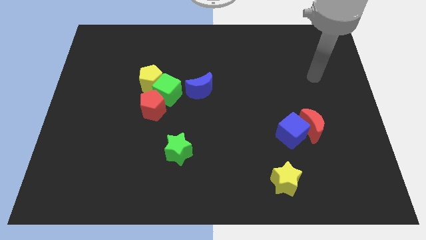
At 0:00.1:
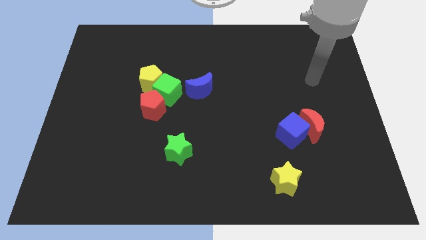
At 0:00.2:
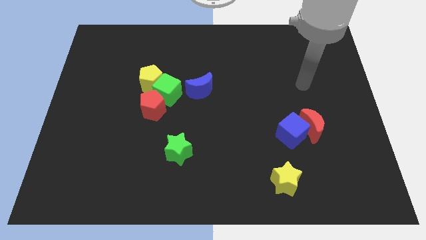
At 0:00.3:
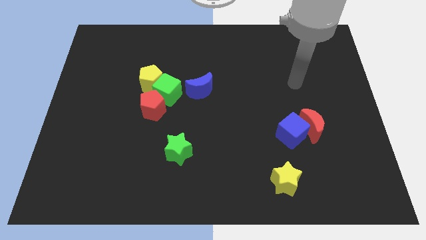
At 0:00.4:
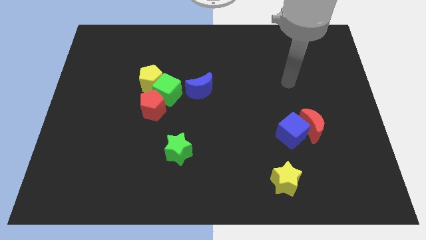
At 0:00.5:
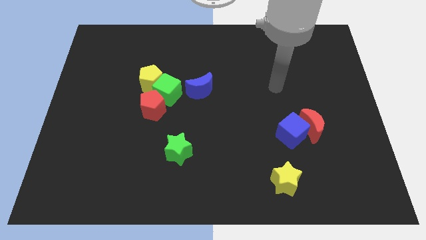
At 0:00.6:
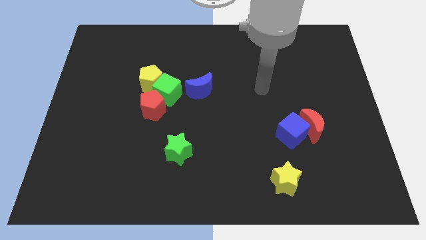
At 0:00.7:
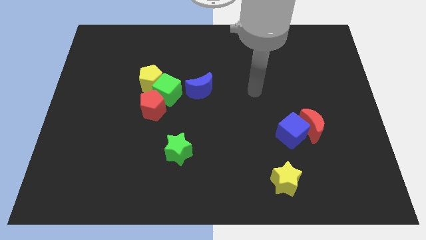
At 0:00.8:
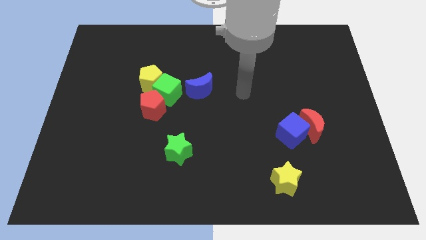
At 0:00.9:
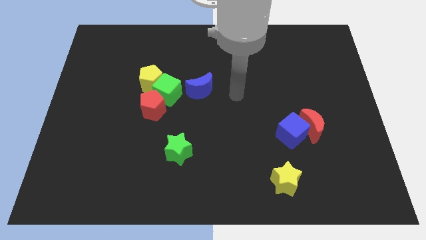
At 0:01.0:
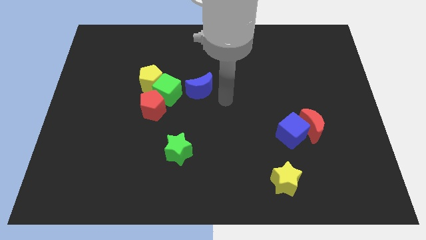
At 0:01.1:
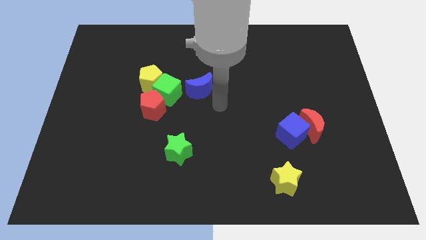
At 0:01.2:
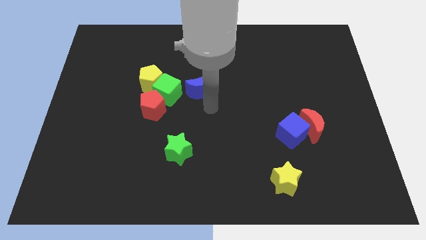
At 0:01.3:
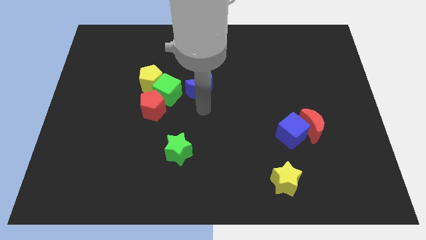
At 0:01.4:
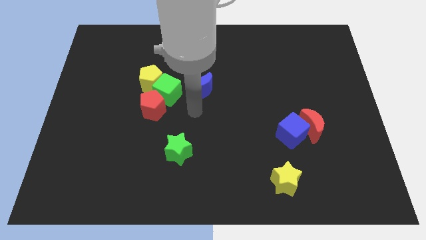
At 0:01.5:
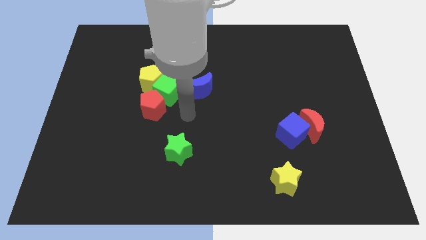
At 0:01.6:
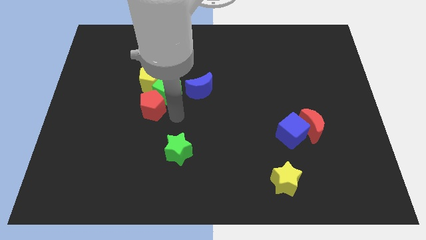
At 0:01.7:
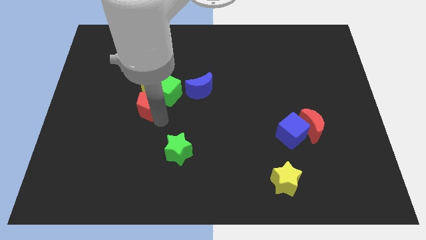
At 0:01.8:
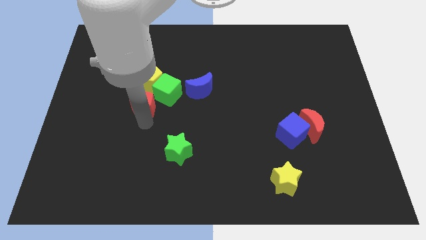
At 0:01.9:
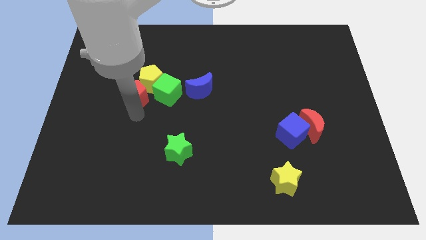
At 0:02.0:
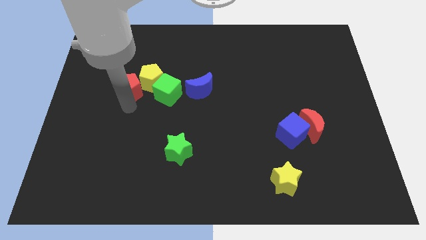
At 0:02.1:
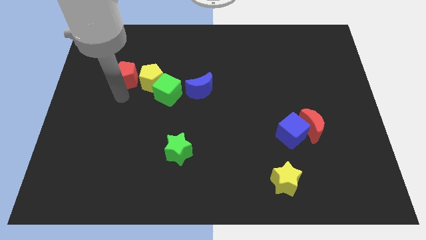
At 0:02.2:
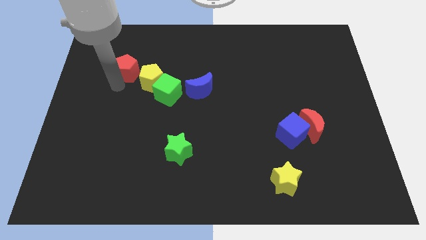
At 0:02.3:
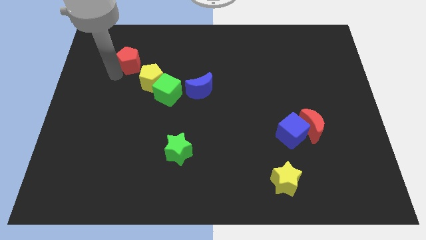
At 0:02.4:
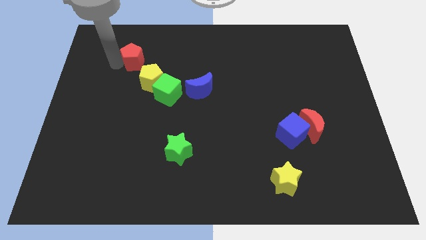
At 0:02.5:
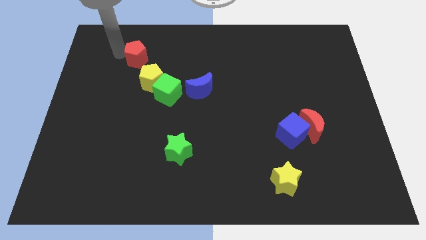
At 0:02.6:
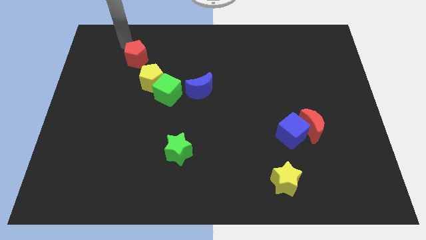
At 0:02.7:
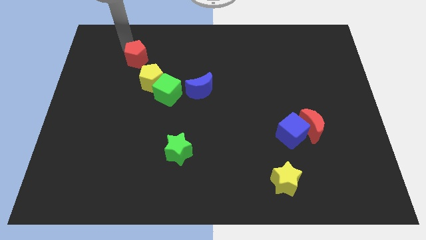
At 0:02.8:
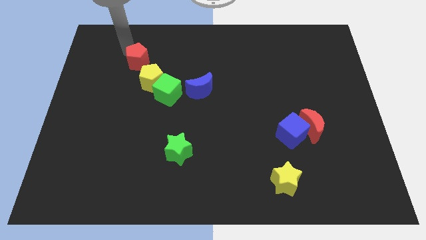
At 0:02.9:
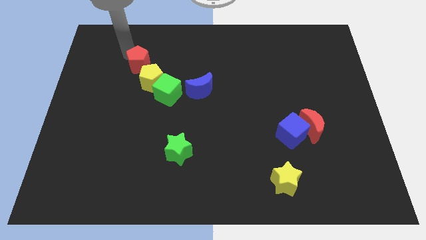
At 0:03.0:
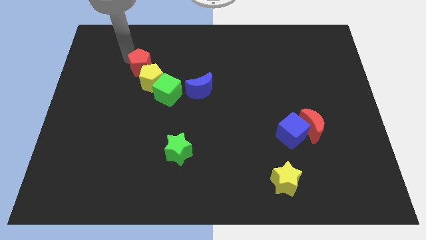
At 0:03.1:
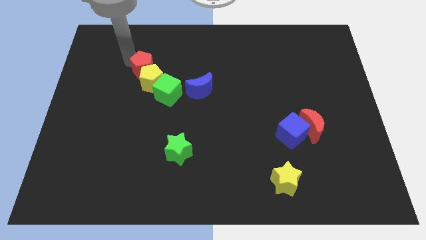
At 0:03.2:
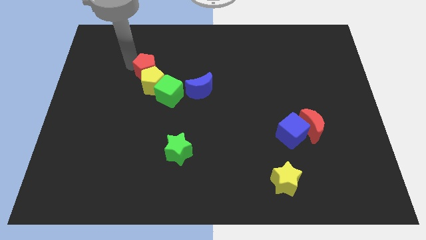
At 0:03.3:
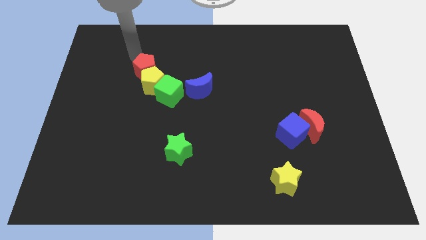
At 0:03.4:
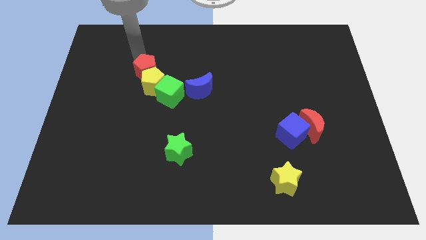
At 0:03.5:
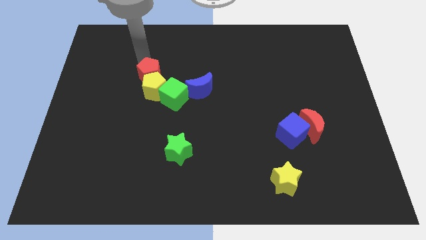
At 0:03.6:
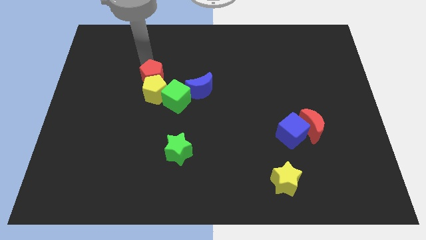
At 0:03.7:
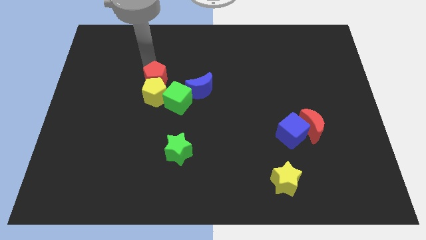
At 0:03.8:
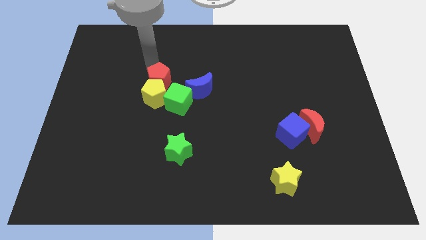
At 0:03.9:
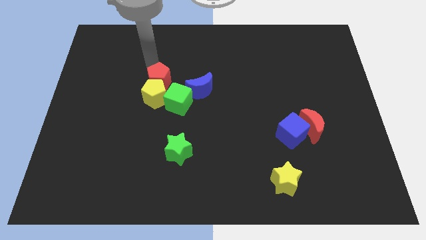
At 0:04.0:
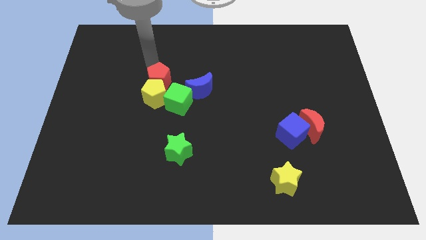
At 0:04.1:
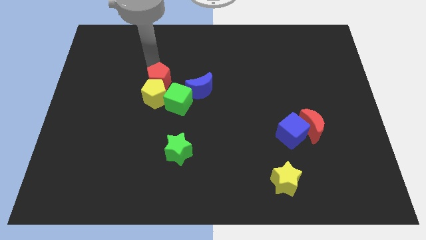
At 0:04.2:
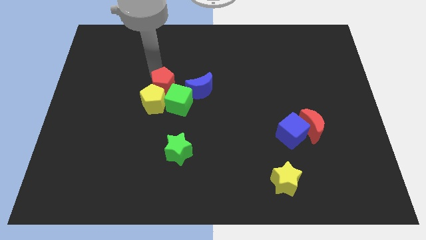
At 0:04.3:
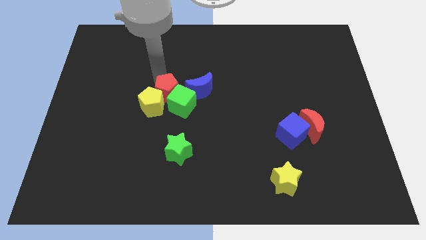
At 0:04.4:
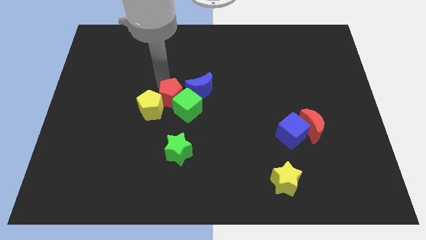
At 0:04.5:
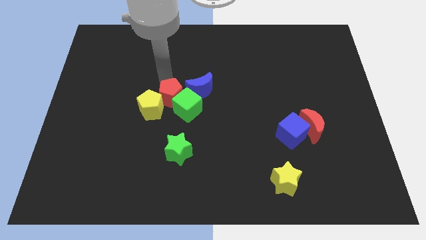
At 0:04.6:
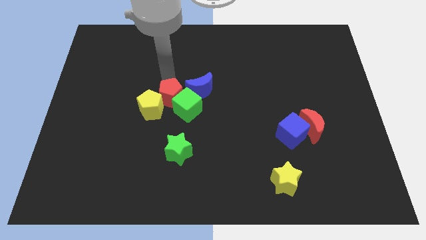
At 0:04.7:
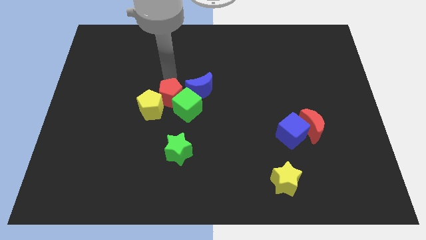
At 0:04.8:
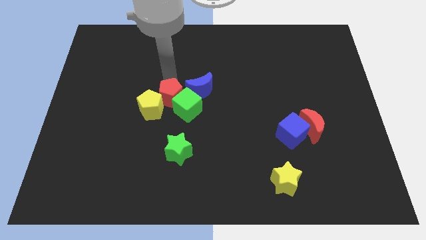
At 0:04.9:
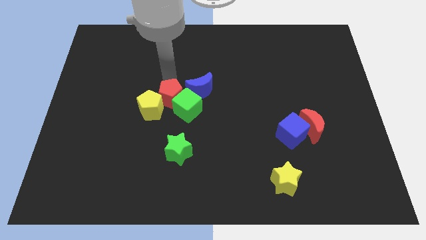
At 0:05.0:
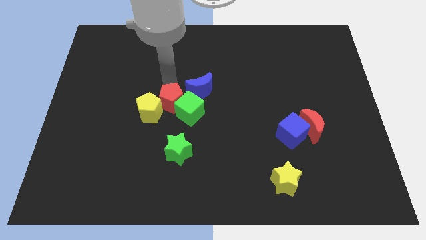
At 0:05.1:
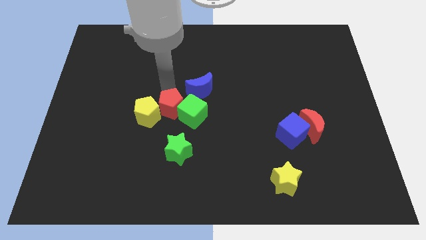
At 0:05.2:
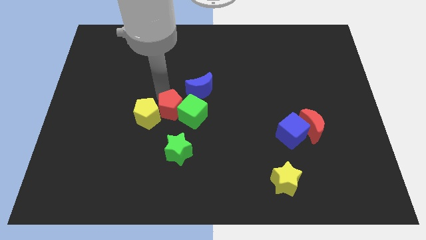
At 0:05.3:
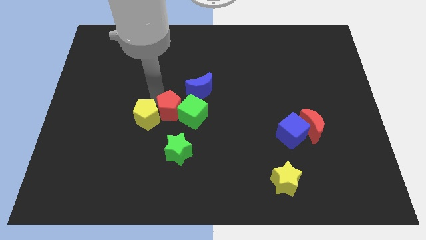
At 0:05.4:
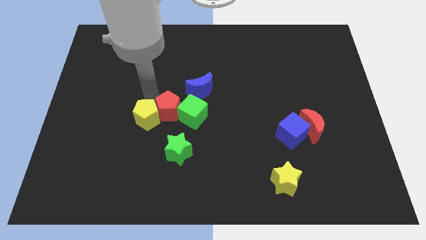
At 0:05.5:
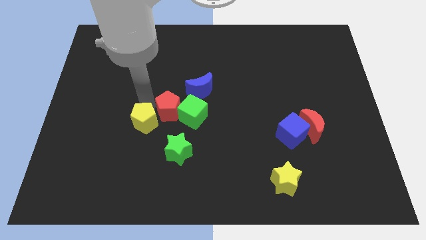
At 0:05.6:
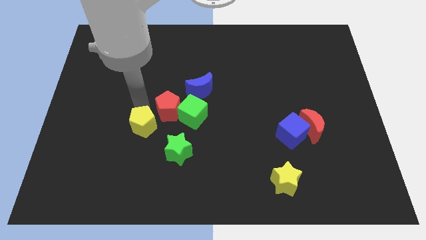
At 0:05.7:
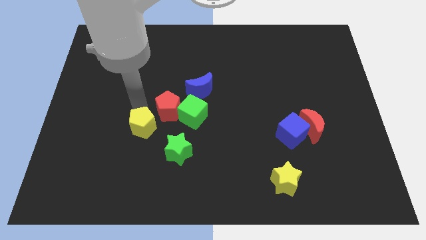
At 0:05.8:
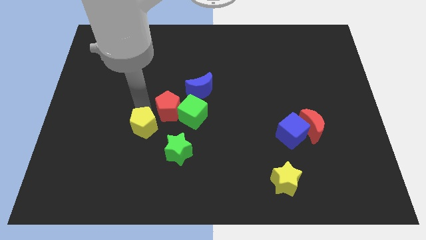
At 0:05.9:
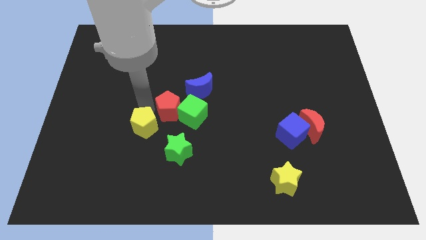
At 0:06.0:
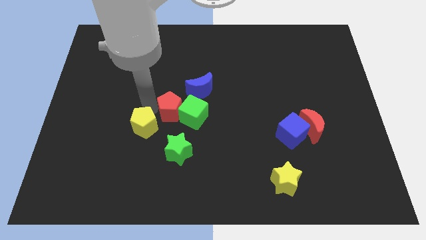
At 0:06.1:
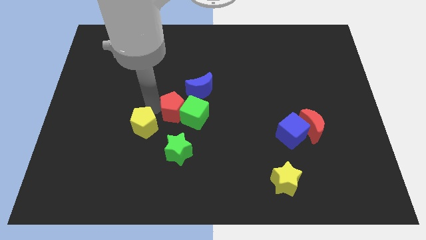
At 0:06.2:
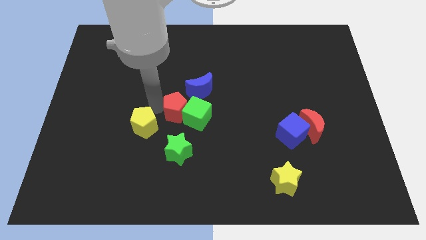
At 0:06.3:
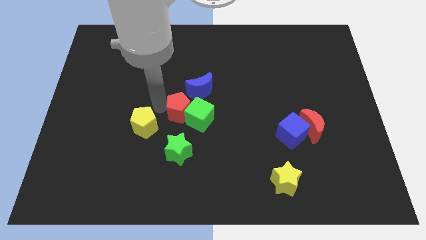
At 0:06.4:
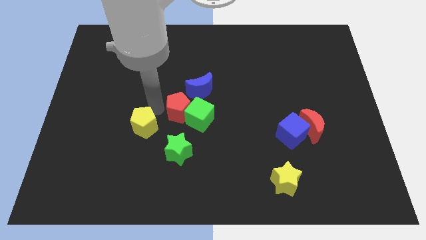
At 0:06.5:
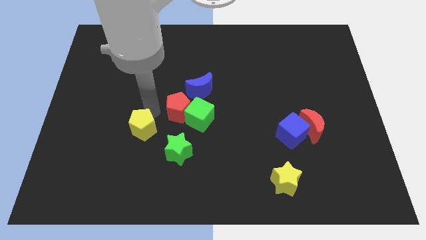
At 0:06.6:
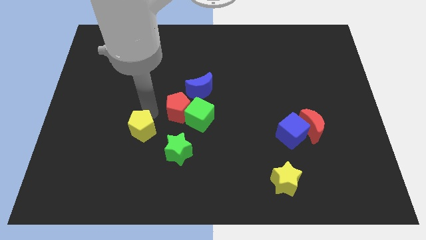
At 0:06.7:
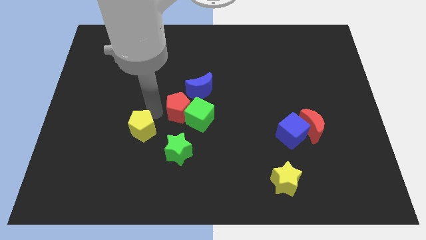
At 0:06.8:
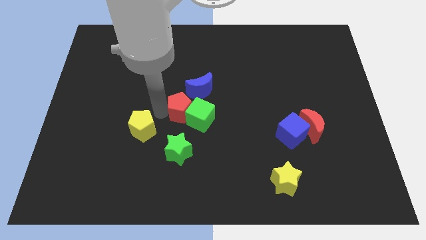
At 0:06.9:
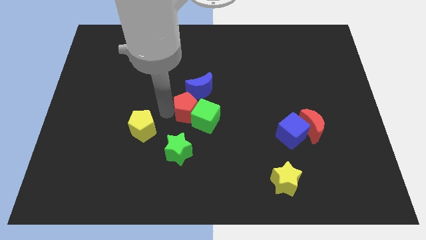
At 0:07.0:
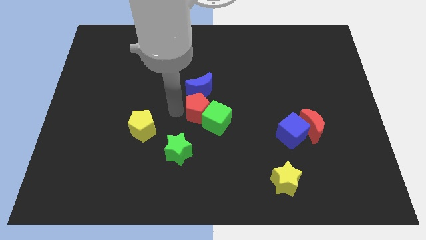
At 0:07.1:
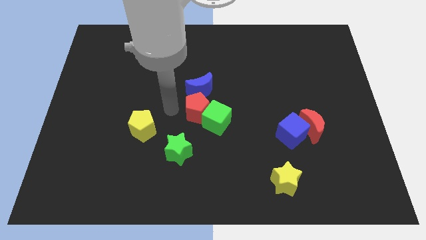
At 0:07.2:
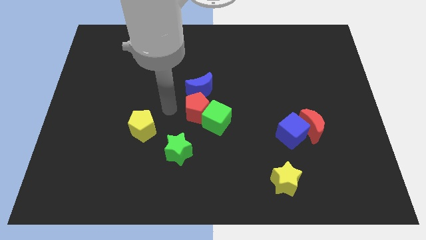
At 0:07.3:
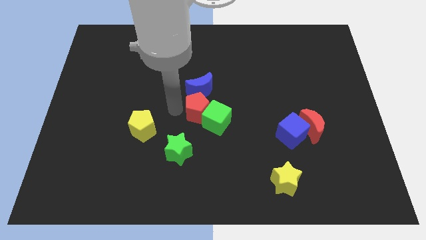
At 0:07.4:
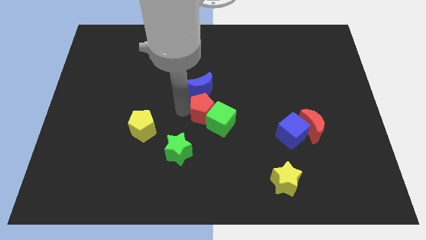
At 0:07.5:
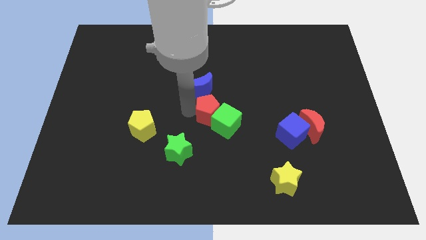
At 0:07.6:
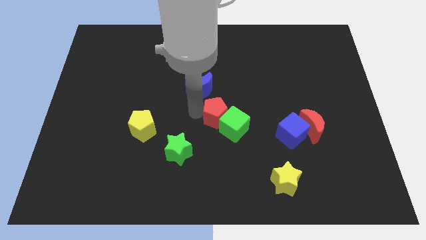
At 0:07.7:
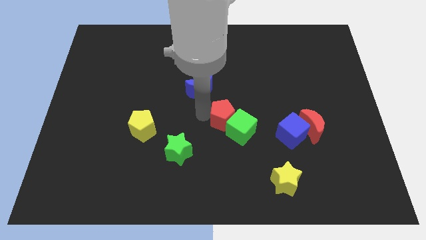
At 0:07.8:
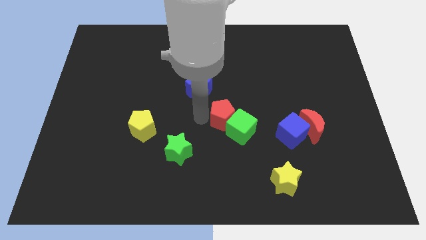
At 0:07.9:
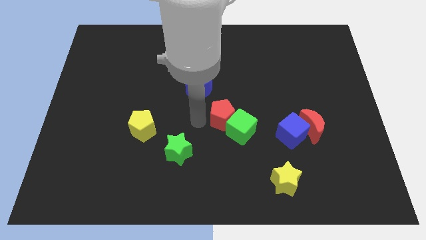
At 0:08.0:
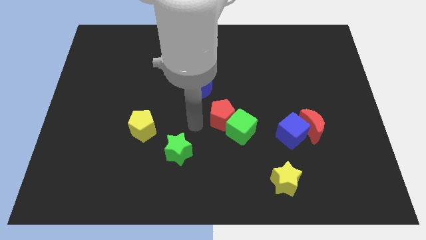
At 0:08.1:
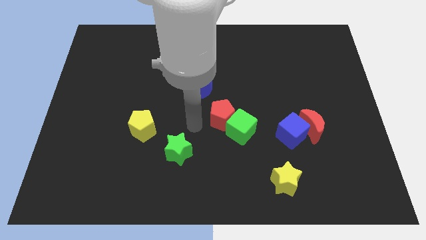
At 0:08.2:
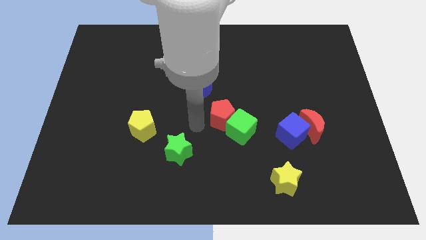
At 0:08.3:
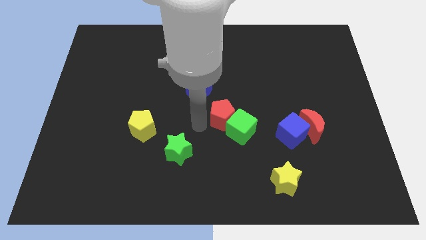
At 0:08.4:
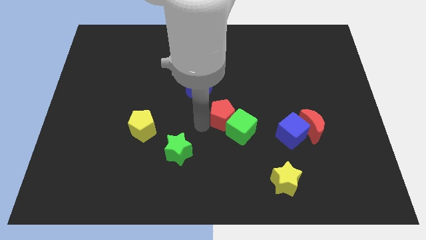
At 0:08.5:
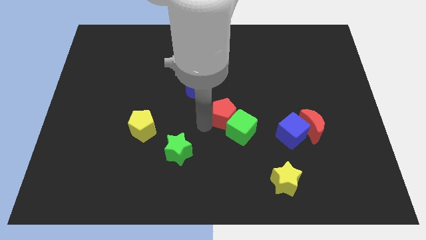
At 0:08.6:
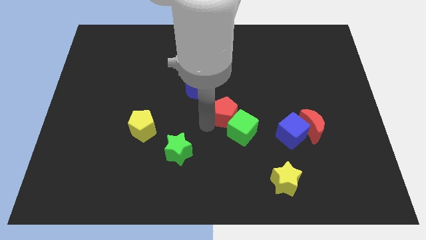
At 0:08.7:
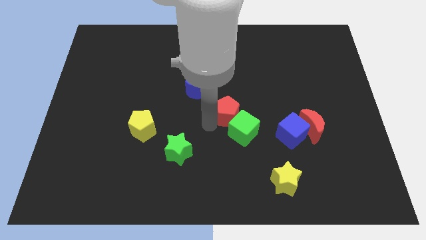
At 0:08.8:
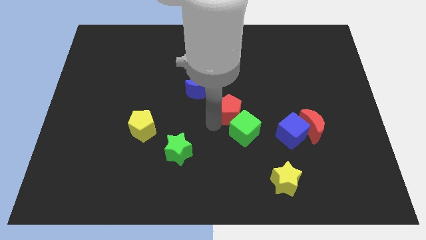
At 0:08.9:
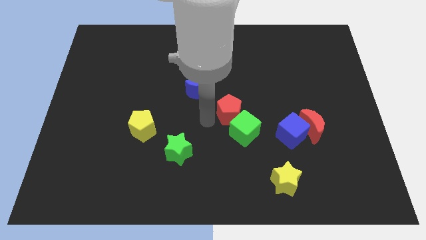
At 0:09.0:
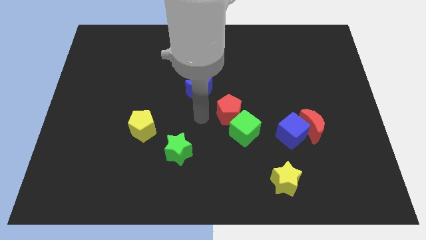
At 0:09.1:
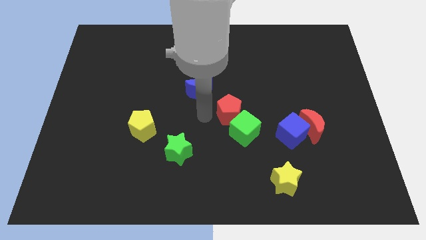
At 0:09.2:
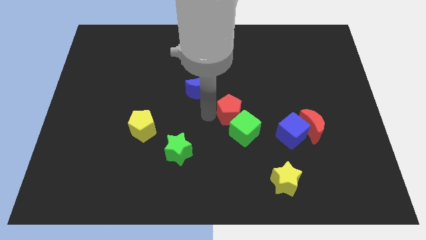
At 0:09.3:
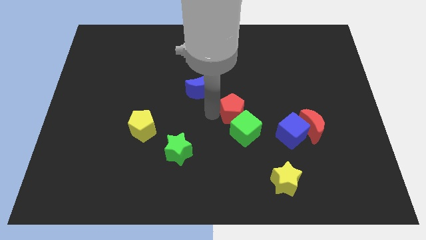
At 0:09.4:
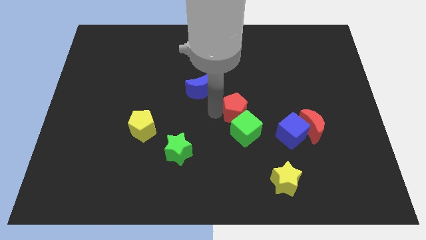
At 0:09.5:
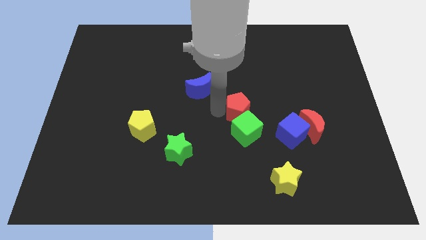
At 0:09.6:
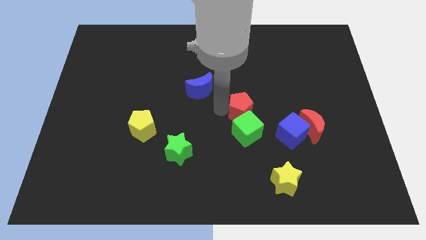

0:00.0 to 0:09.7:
push the red pentagon right
